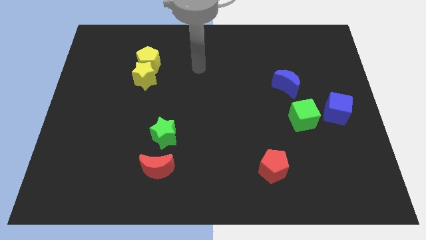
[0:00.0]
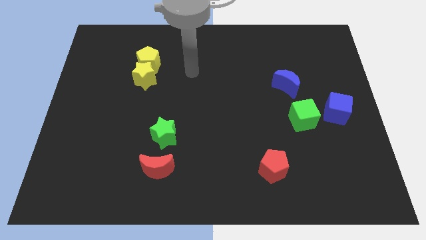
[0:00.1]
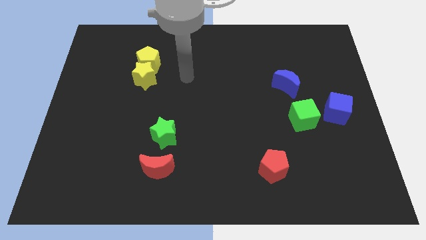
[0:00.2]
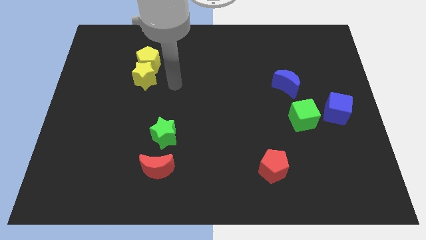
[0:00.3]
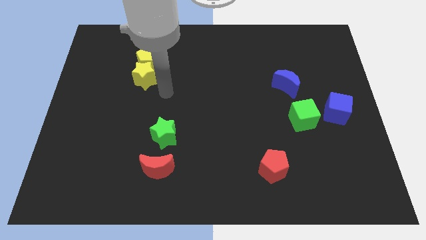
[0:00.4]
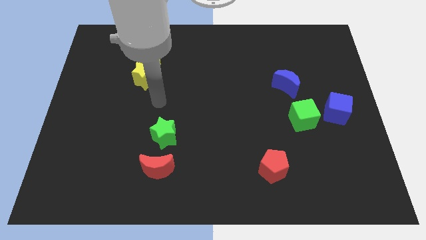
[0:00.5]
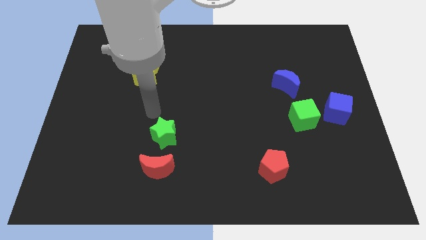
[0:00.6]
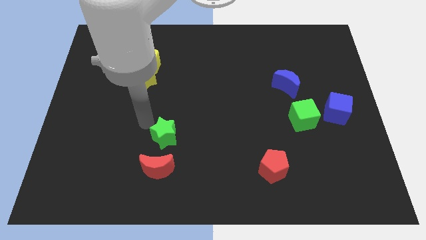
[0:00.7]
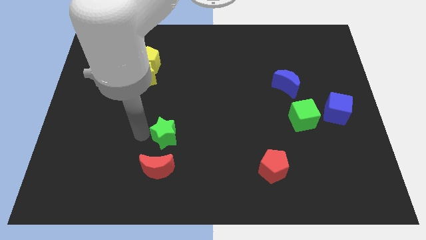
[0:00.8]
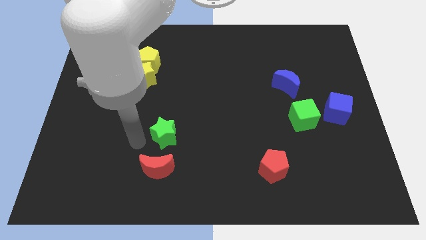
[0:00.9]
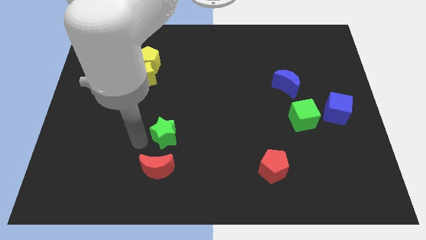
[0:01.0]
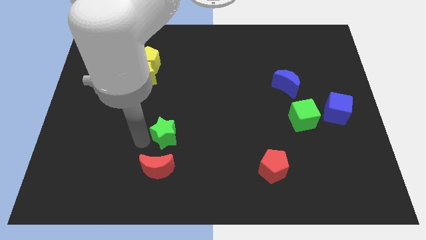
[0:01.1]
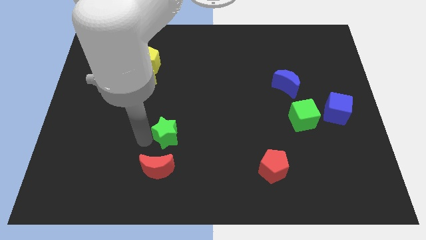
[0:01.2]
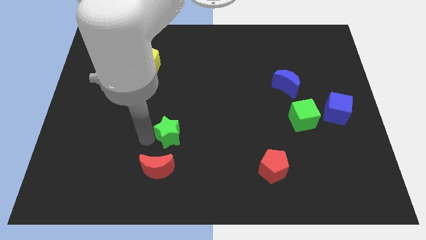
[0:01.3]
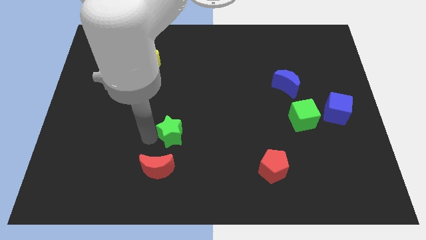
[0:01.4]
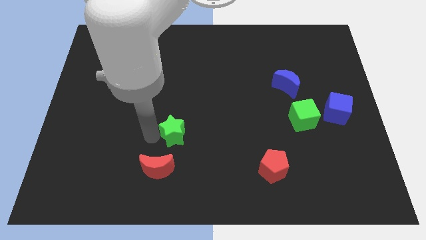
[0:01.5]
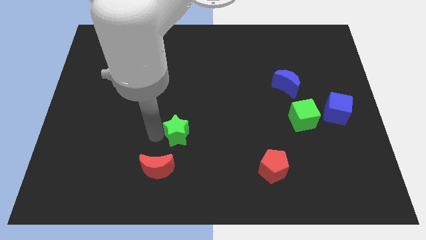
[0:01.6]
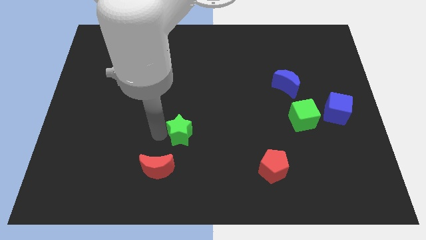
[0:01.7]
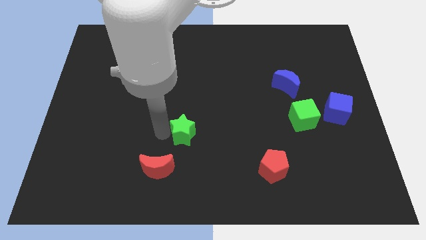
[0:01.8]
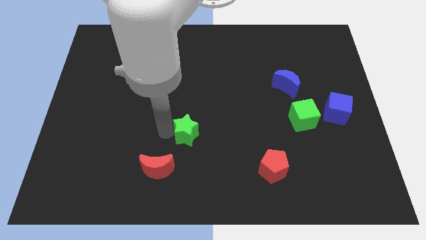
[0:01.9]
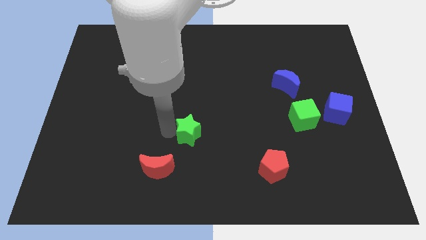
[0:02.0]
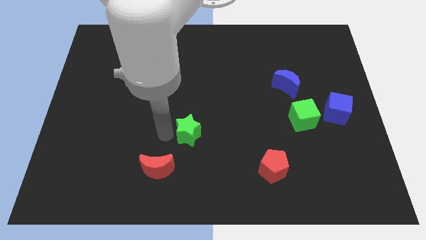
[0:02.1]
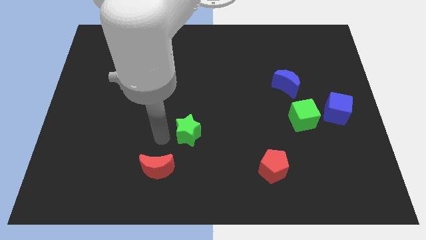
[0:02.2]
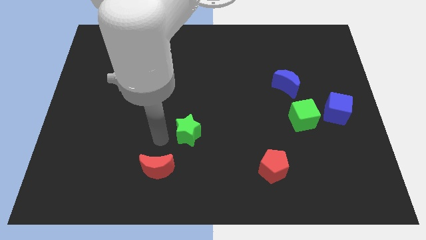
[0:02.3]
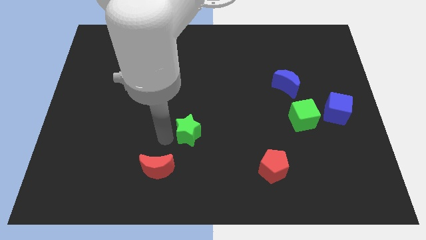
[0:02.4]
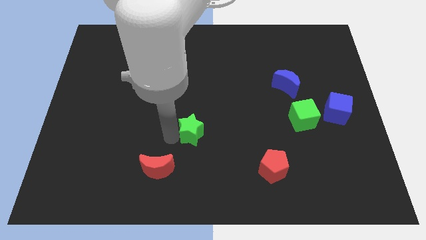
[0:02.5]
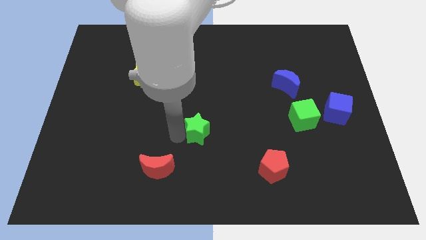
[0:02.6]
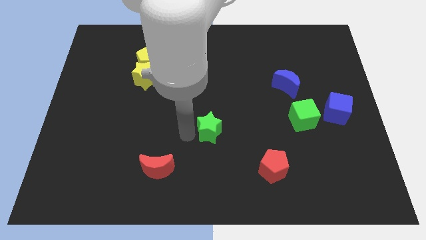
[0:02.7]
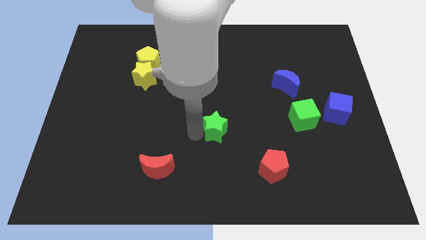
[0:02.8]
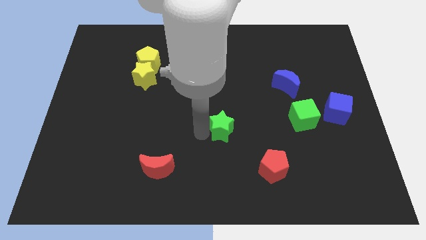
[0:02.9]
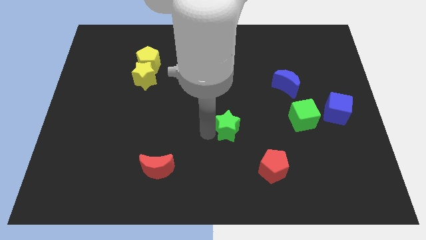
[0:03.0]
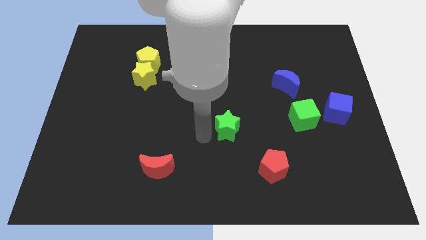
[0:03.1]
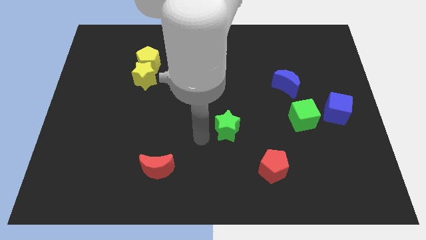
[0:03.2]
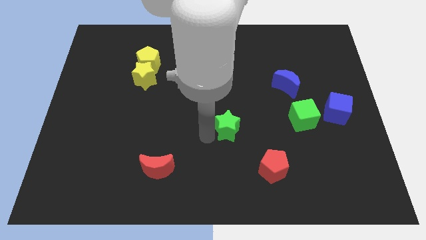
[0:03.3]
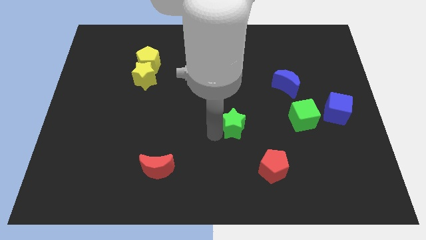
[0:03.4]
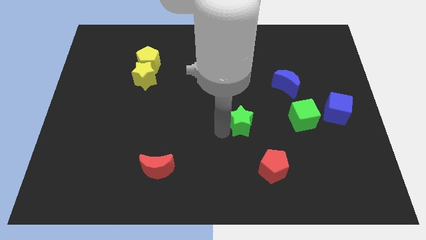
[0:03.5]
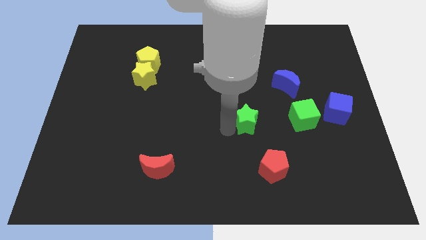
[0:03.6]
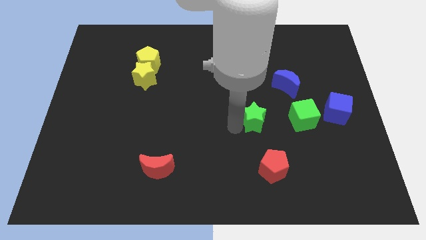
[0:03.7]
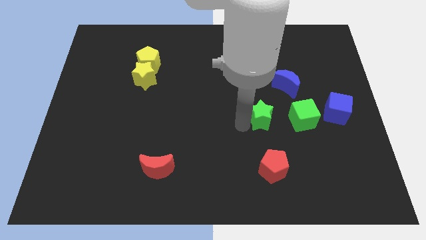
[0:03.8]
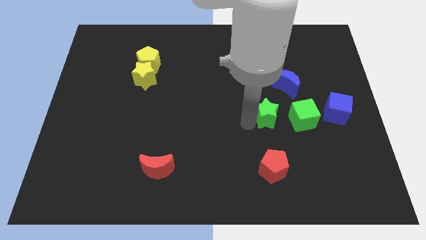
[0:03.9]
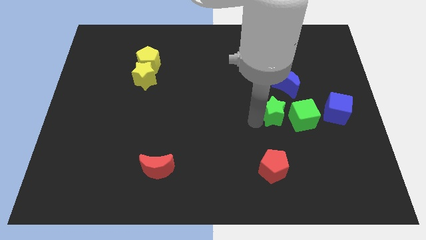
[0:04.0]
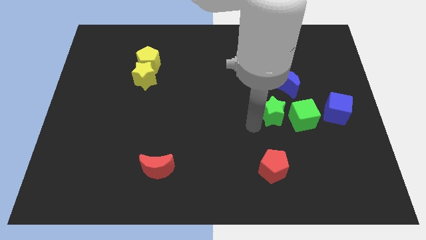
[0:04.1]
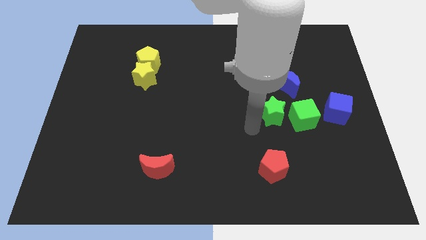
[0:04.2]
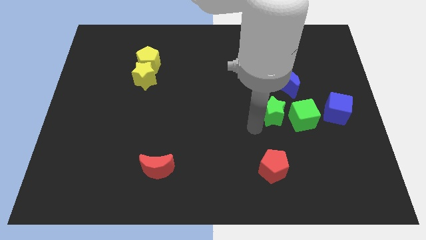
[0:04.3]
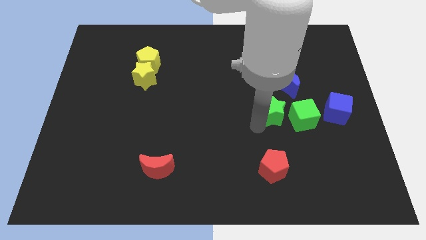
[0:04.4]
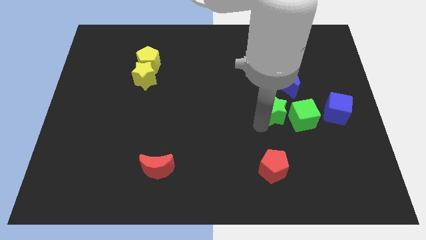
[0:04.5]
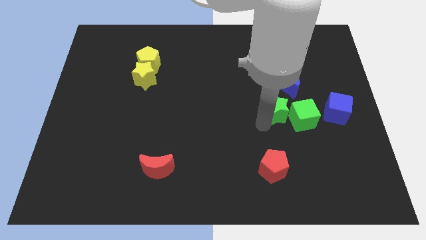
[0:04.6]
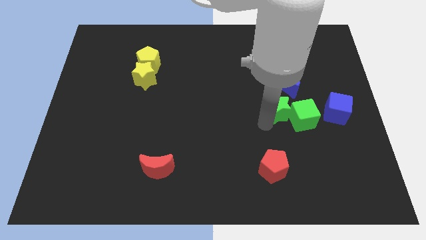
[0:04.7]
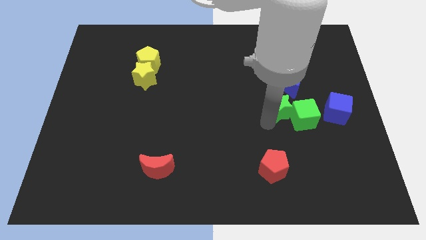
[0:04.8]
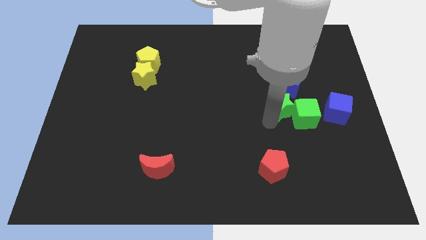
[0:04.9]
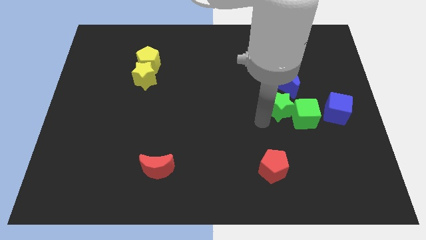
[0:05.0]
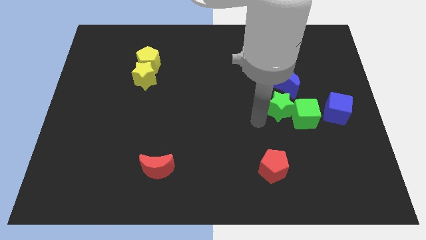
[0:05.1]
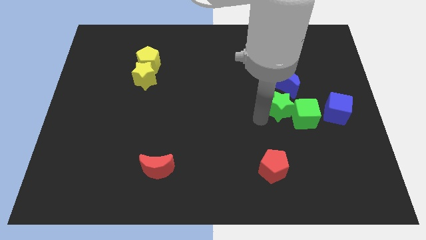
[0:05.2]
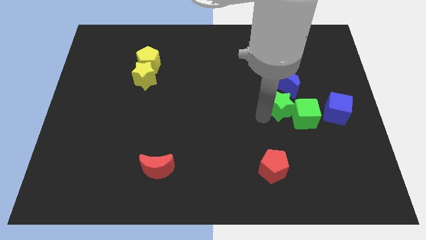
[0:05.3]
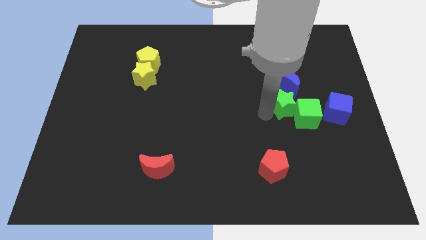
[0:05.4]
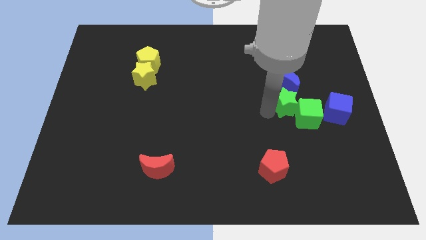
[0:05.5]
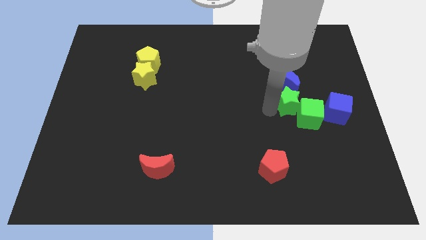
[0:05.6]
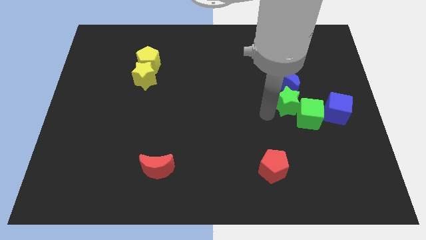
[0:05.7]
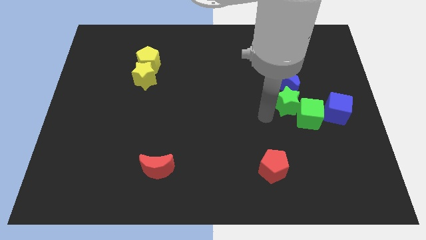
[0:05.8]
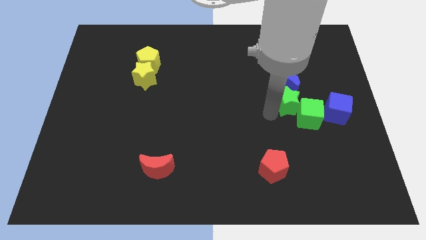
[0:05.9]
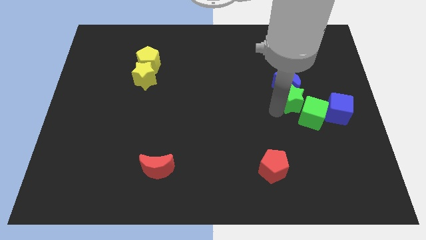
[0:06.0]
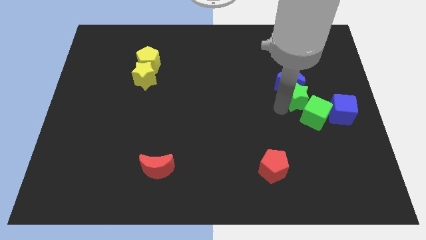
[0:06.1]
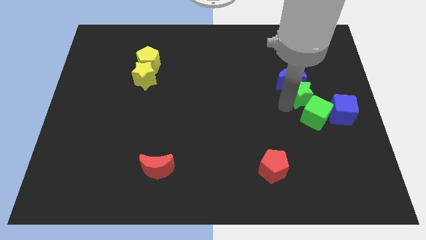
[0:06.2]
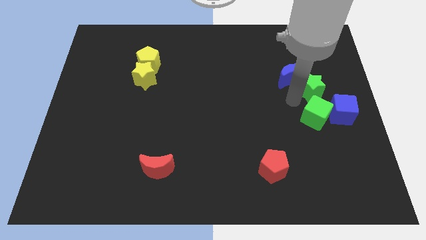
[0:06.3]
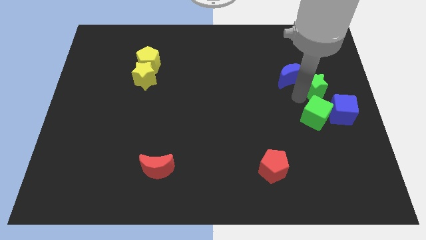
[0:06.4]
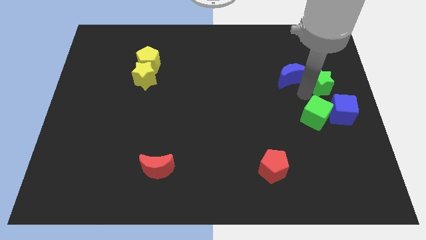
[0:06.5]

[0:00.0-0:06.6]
put the green star to the top side of the blue cube

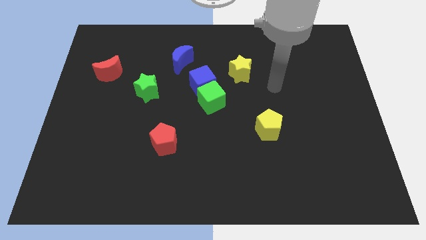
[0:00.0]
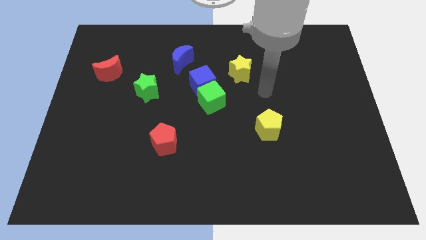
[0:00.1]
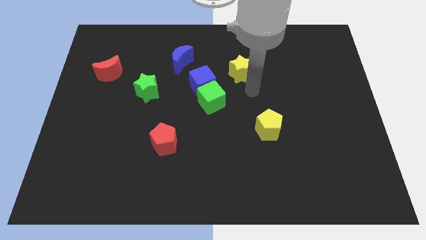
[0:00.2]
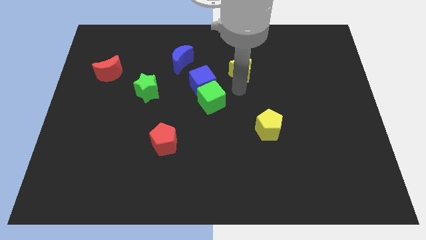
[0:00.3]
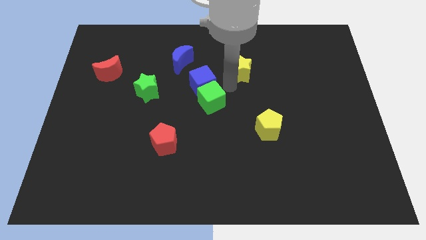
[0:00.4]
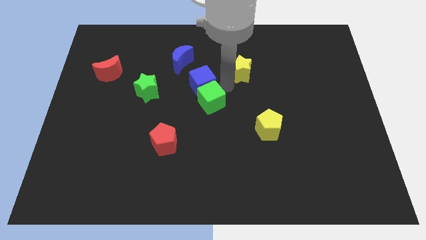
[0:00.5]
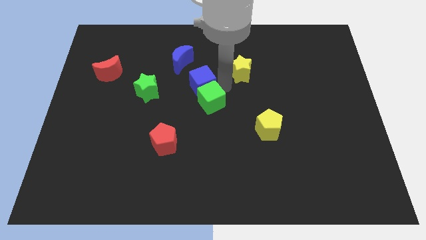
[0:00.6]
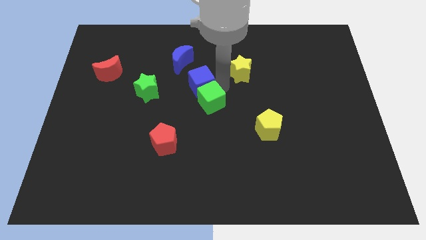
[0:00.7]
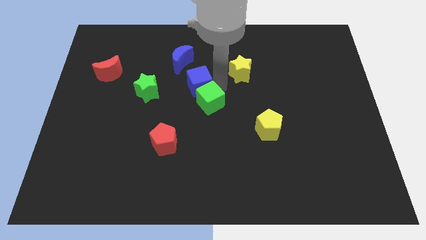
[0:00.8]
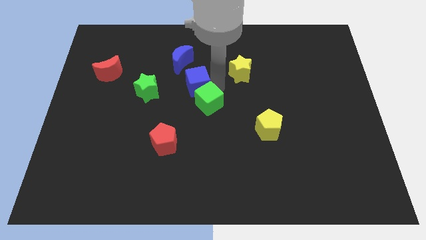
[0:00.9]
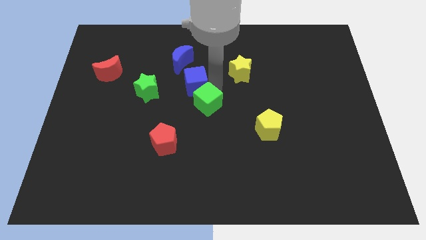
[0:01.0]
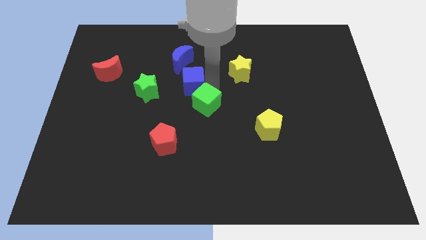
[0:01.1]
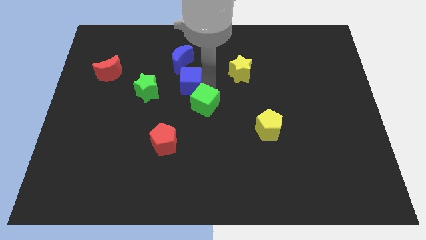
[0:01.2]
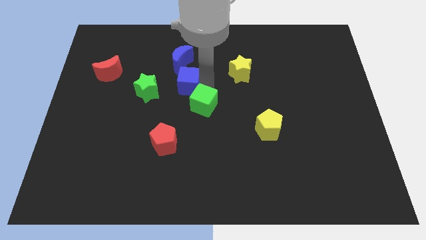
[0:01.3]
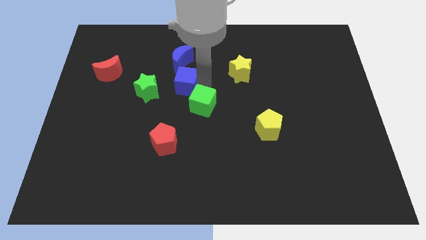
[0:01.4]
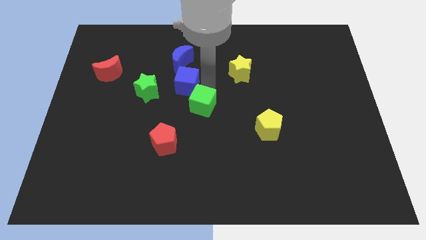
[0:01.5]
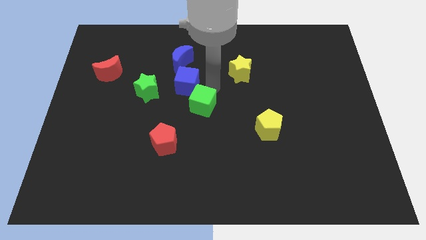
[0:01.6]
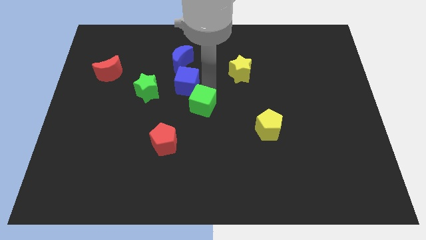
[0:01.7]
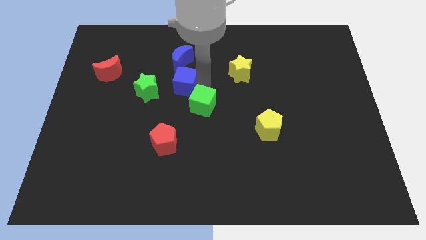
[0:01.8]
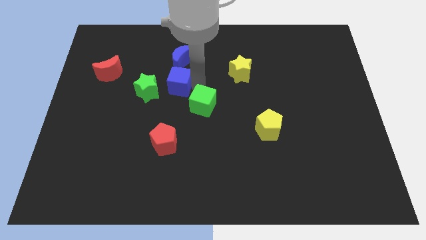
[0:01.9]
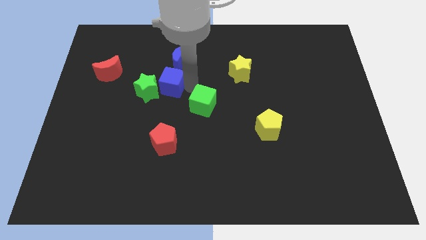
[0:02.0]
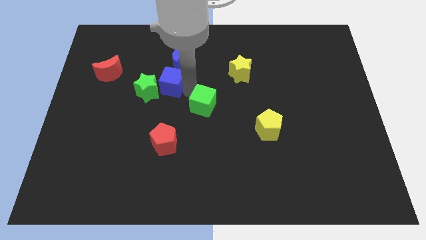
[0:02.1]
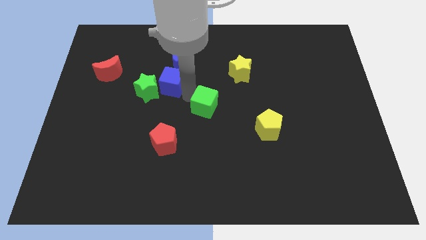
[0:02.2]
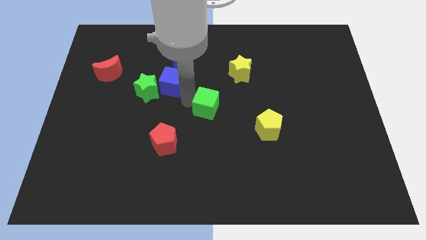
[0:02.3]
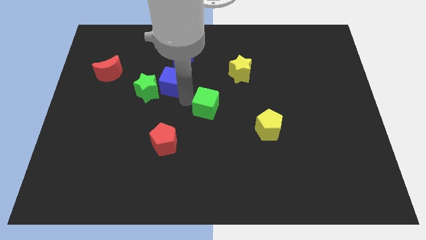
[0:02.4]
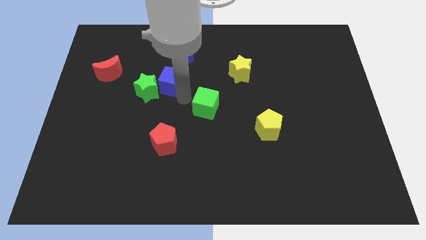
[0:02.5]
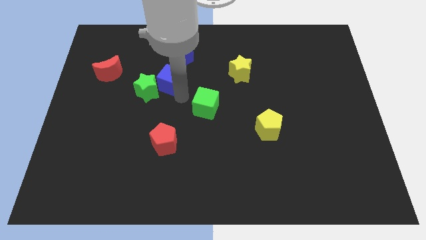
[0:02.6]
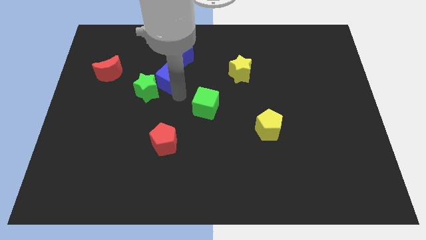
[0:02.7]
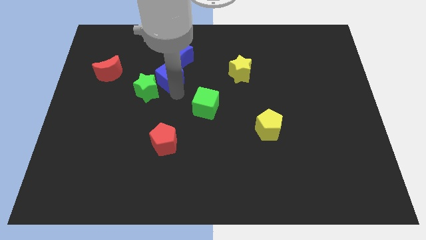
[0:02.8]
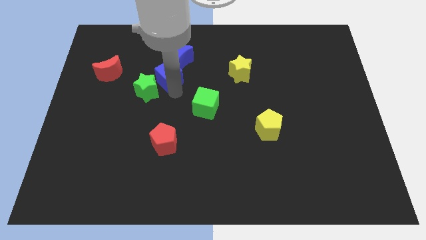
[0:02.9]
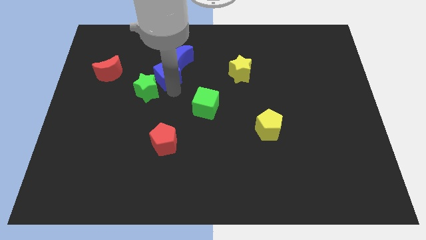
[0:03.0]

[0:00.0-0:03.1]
put the blue cube to the top side of the green star
